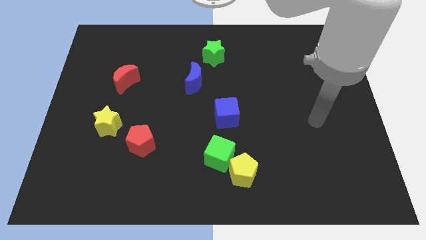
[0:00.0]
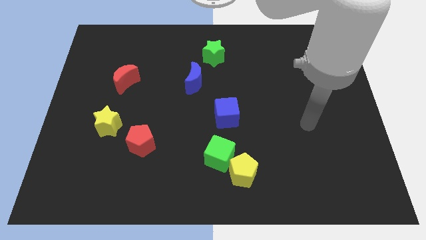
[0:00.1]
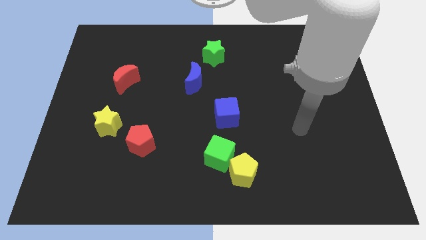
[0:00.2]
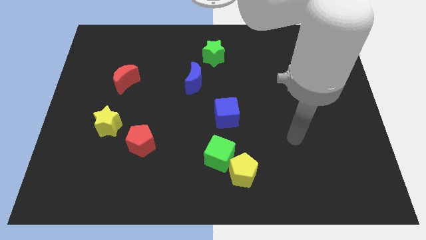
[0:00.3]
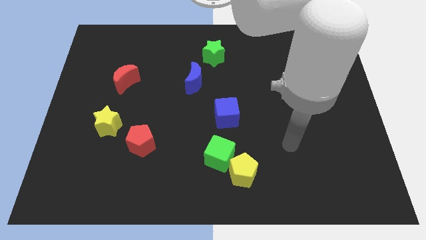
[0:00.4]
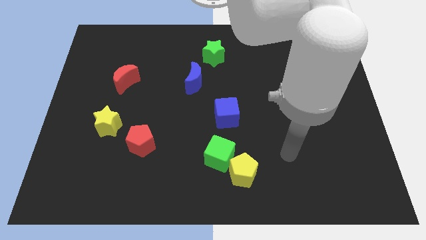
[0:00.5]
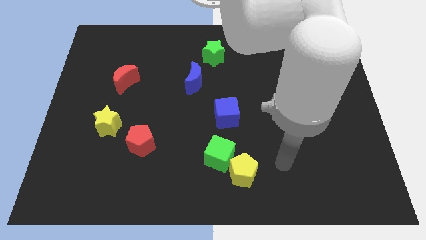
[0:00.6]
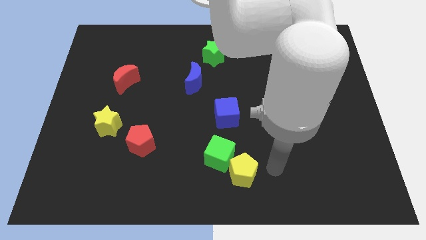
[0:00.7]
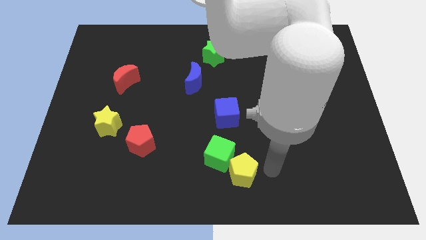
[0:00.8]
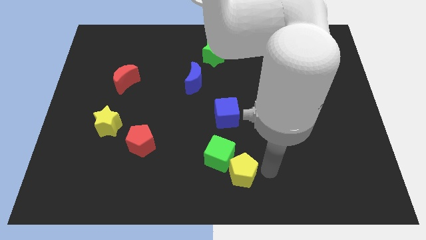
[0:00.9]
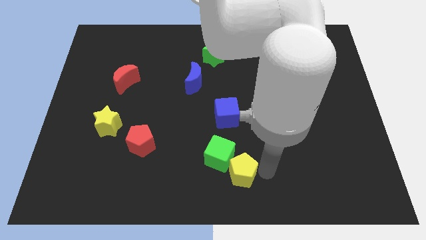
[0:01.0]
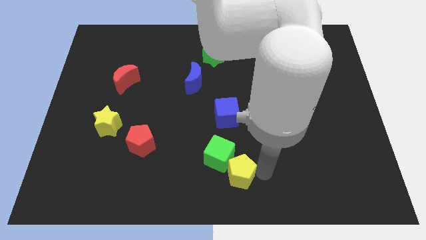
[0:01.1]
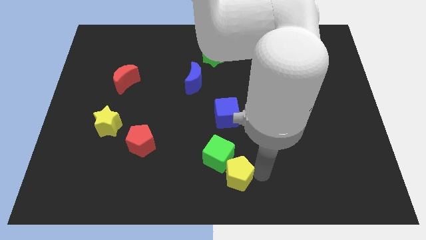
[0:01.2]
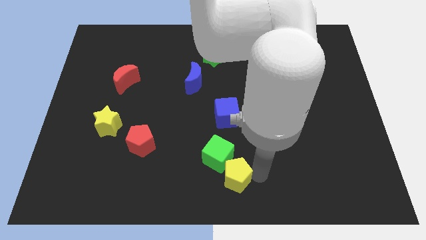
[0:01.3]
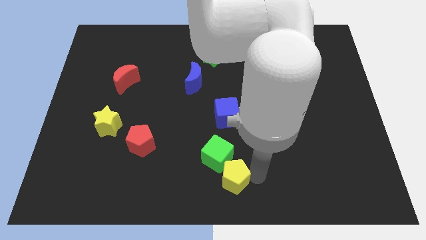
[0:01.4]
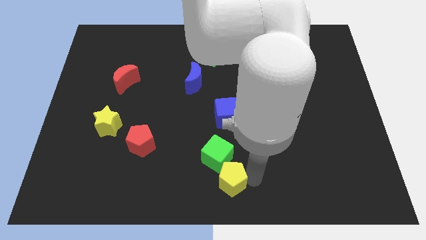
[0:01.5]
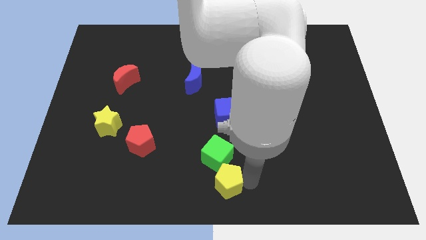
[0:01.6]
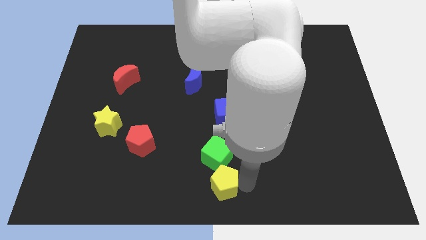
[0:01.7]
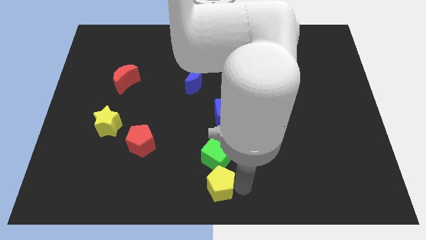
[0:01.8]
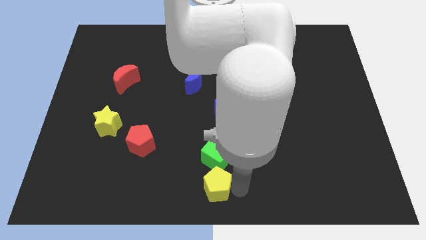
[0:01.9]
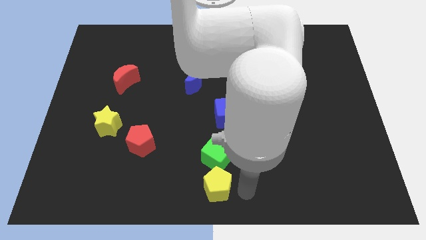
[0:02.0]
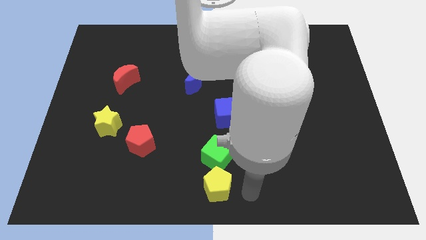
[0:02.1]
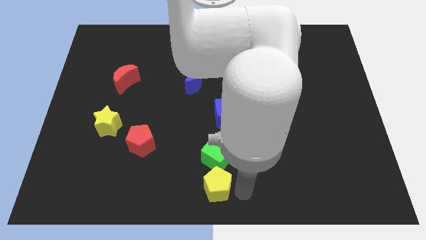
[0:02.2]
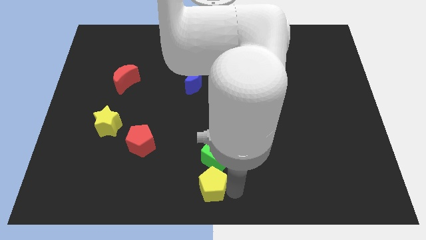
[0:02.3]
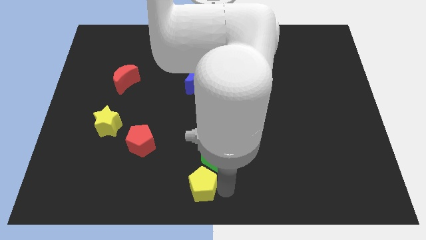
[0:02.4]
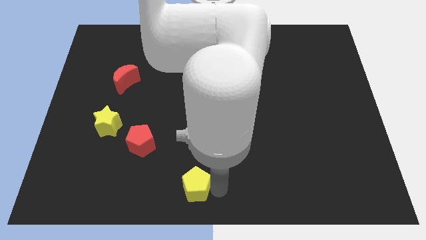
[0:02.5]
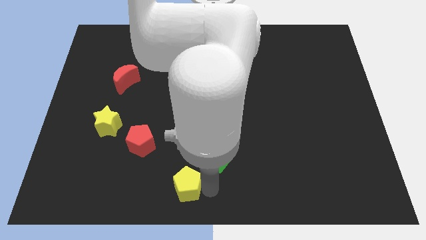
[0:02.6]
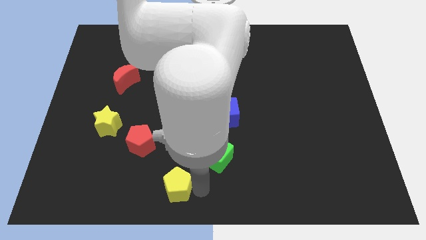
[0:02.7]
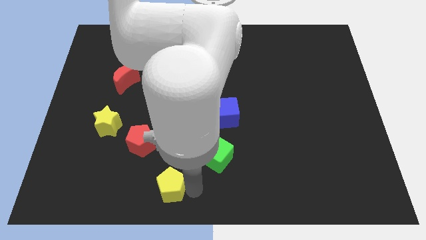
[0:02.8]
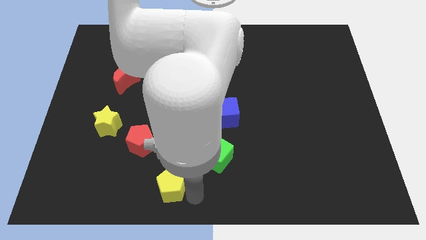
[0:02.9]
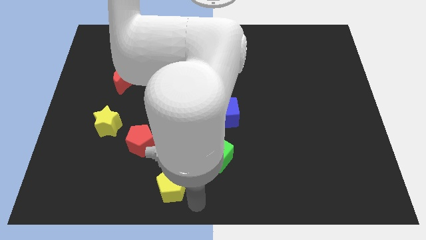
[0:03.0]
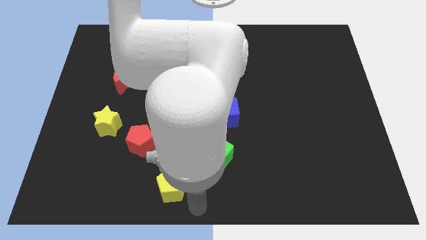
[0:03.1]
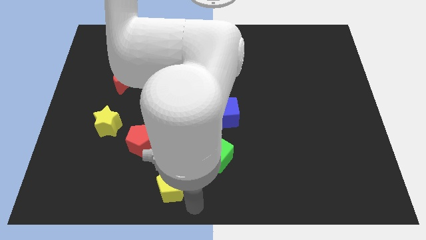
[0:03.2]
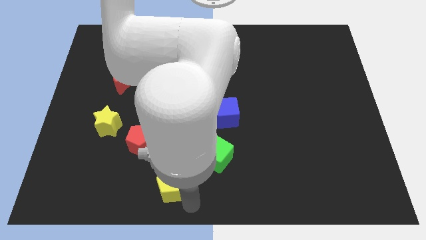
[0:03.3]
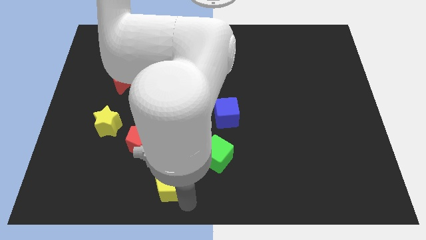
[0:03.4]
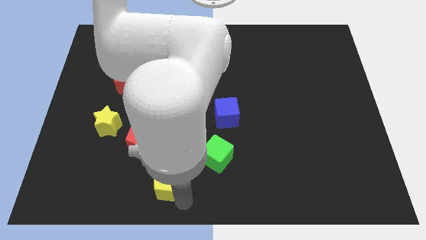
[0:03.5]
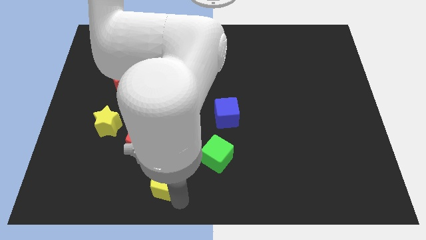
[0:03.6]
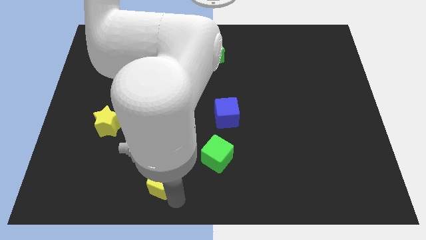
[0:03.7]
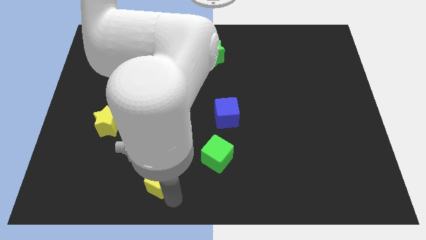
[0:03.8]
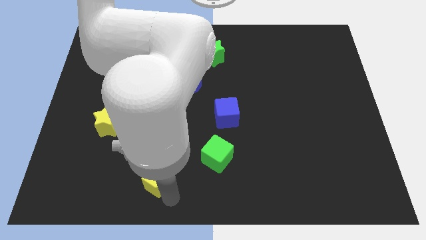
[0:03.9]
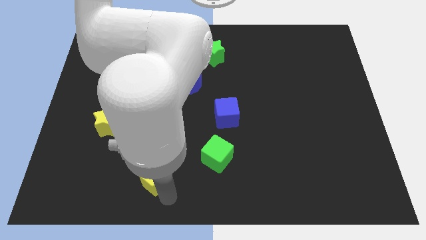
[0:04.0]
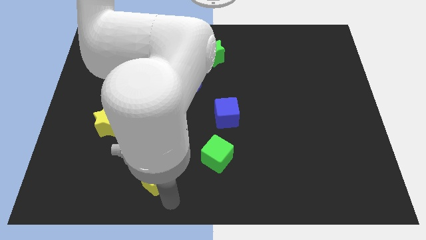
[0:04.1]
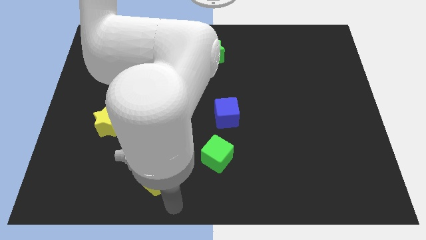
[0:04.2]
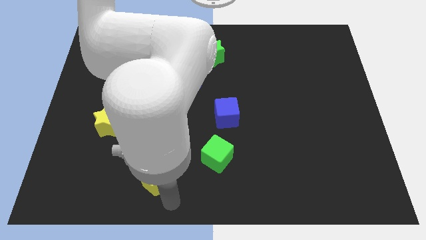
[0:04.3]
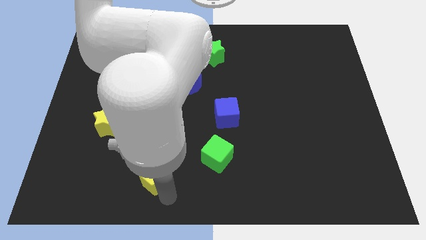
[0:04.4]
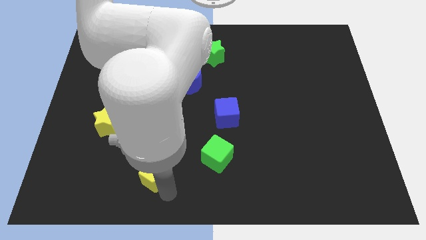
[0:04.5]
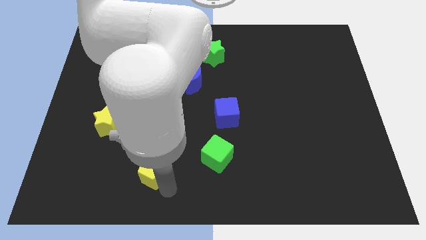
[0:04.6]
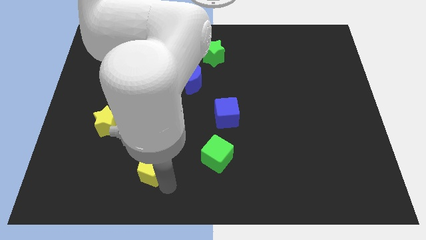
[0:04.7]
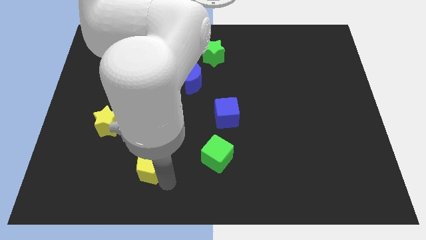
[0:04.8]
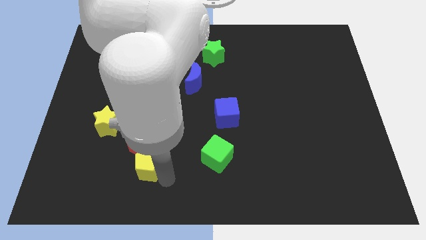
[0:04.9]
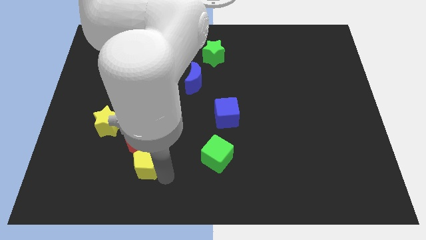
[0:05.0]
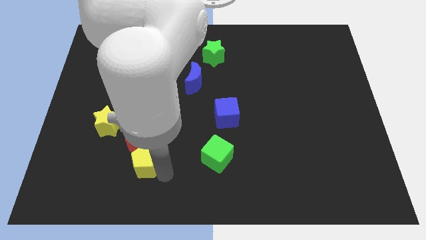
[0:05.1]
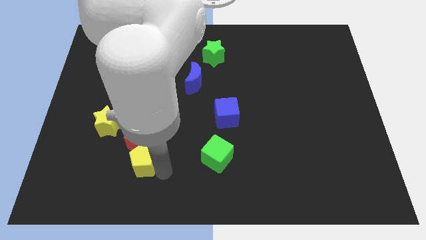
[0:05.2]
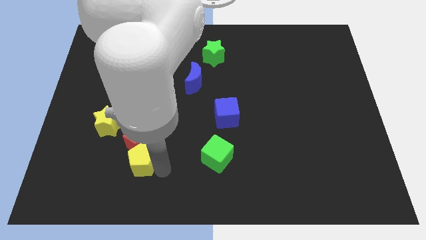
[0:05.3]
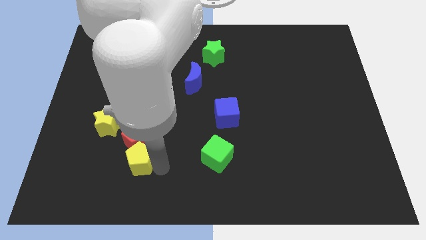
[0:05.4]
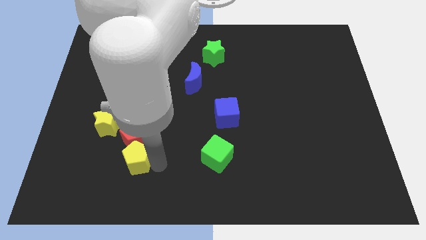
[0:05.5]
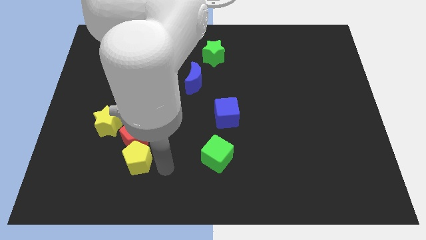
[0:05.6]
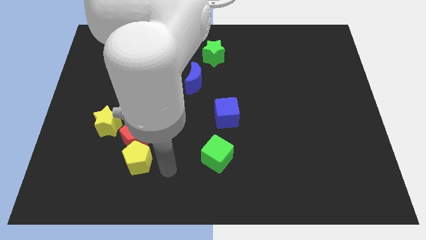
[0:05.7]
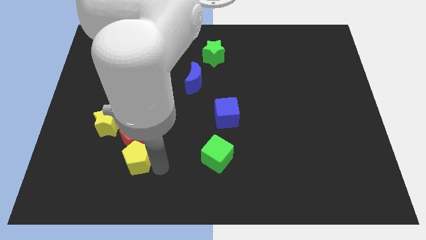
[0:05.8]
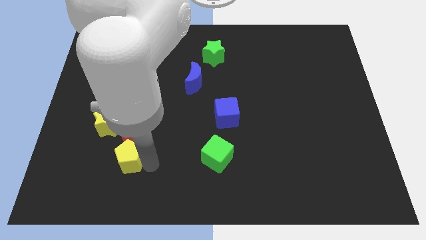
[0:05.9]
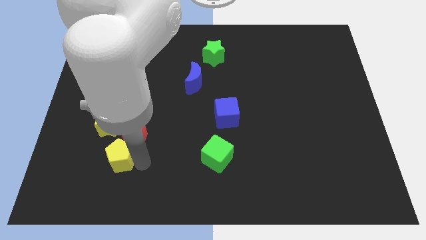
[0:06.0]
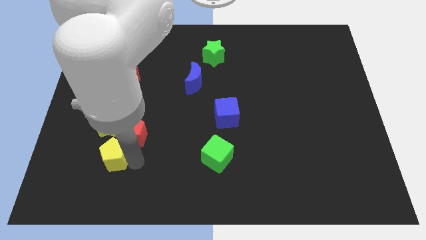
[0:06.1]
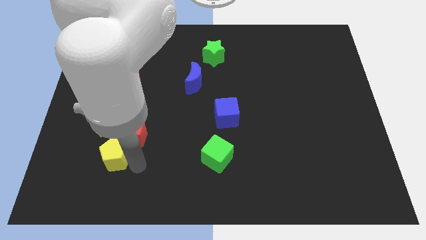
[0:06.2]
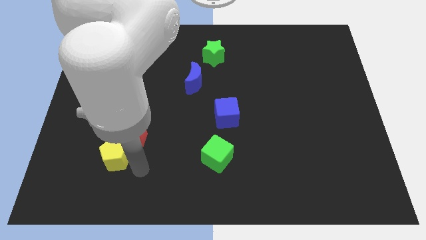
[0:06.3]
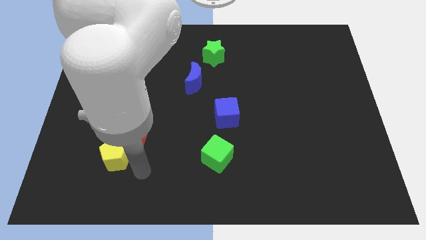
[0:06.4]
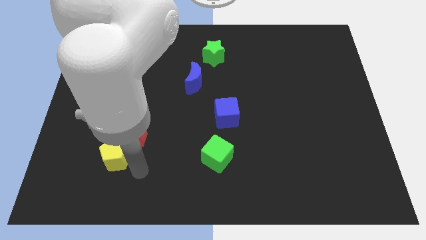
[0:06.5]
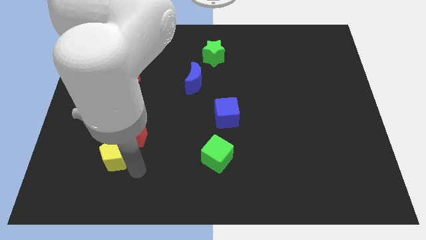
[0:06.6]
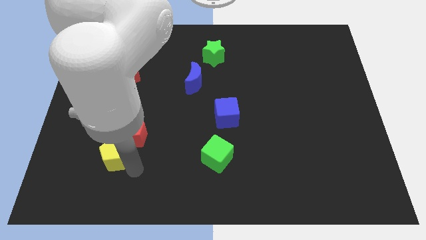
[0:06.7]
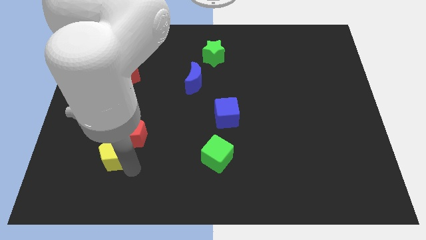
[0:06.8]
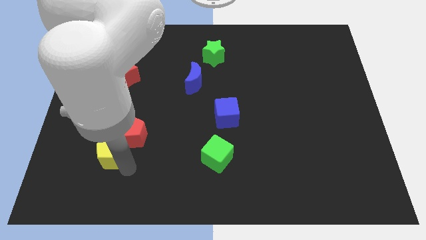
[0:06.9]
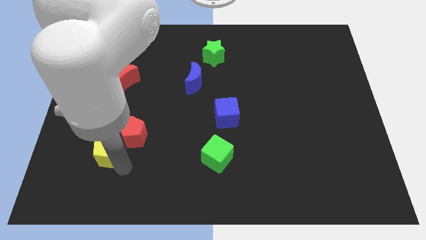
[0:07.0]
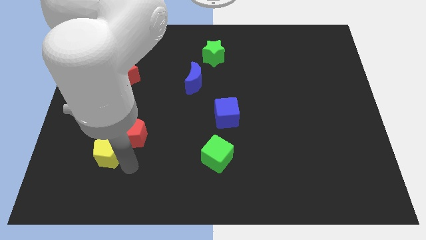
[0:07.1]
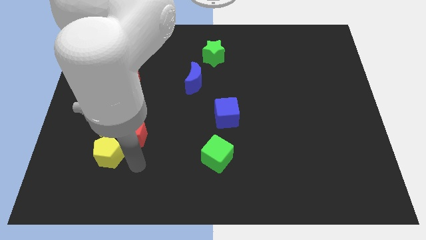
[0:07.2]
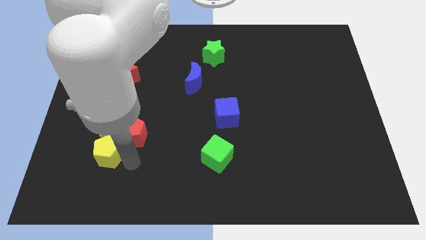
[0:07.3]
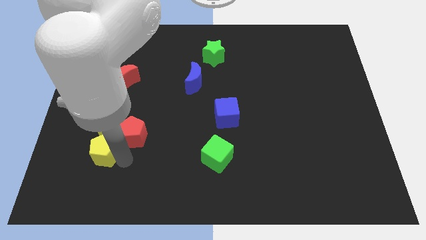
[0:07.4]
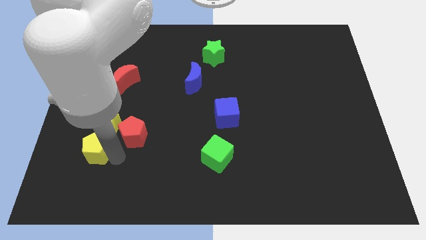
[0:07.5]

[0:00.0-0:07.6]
put the yellow pentagon to the bottom left side of the yellow star
